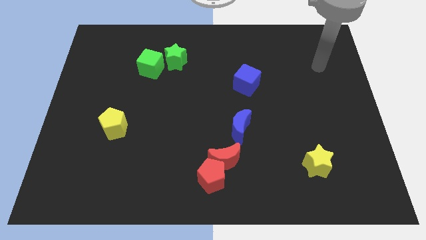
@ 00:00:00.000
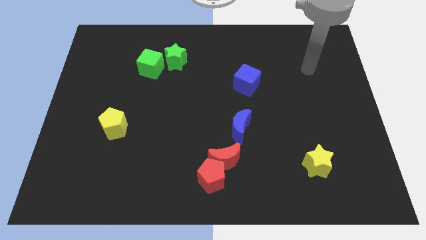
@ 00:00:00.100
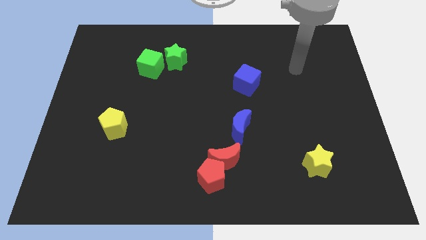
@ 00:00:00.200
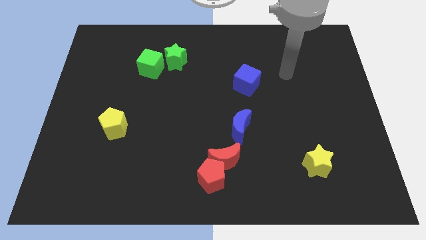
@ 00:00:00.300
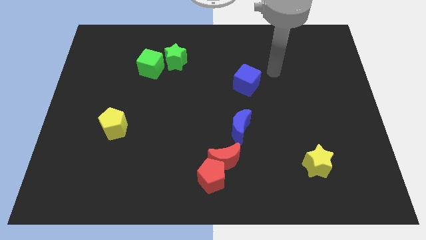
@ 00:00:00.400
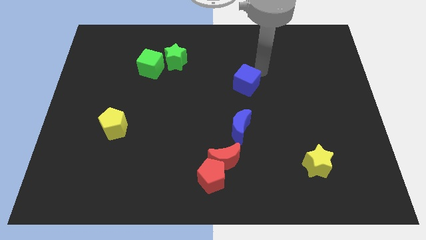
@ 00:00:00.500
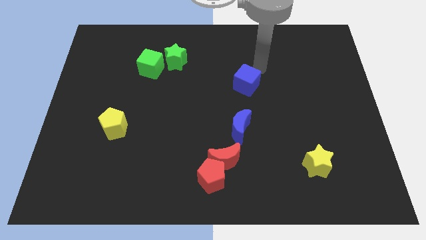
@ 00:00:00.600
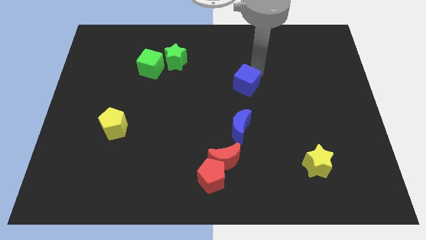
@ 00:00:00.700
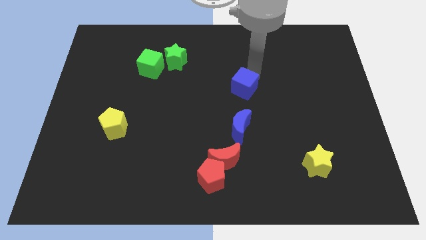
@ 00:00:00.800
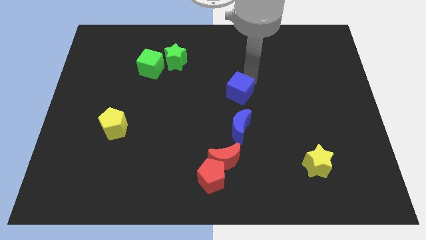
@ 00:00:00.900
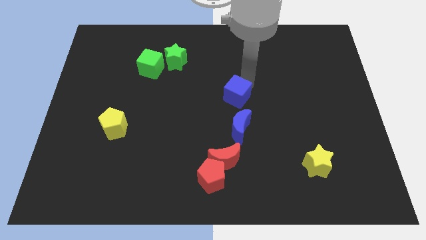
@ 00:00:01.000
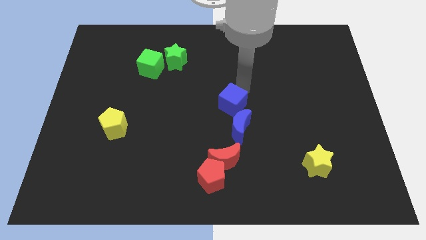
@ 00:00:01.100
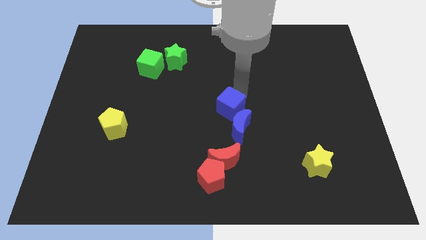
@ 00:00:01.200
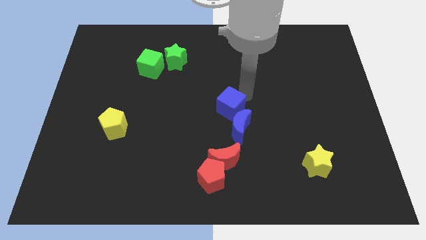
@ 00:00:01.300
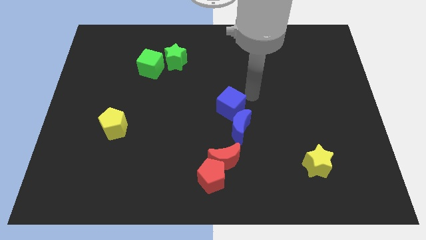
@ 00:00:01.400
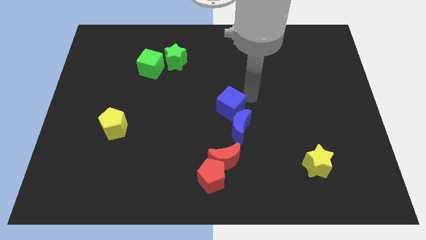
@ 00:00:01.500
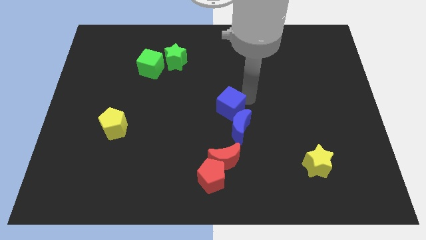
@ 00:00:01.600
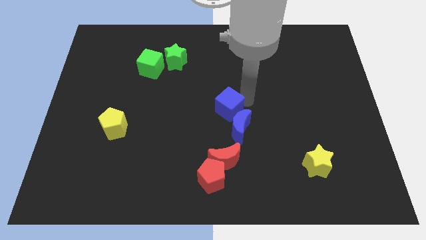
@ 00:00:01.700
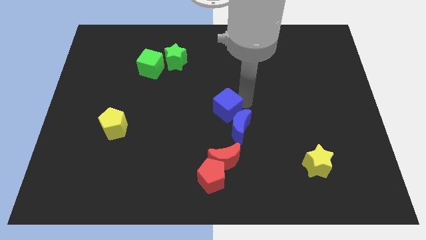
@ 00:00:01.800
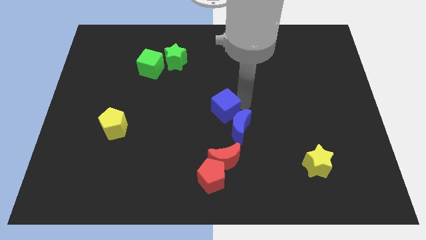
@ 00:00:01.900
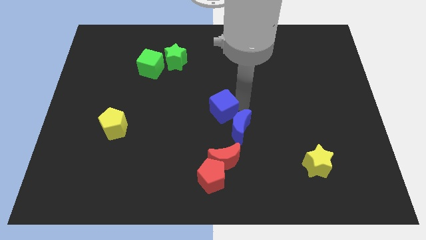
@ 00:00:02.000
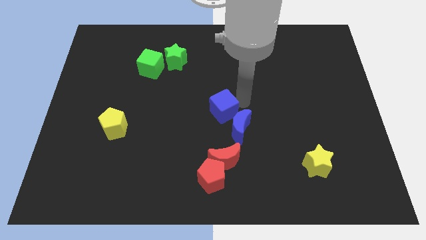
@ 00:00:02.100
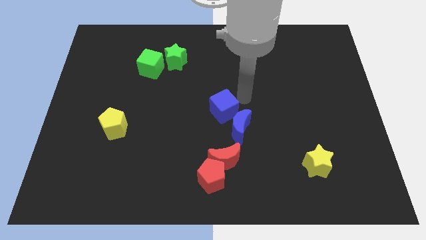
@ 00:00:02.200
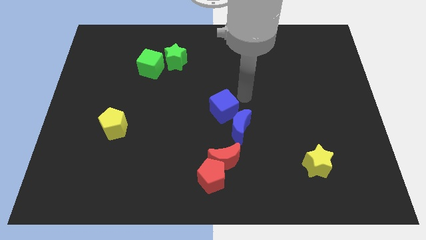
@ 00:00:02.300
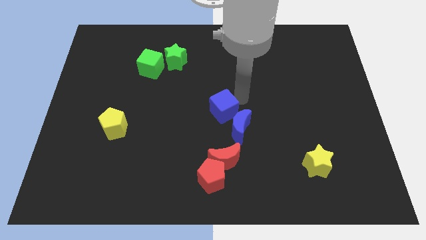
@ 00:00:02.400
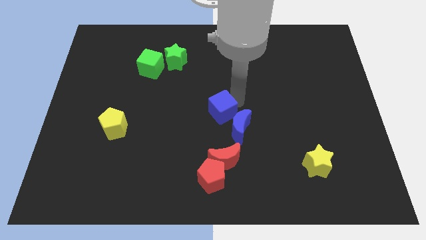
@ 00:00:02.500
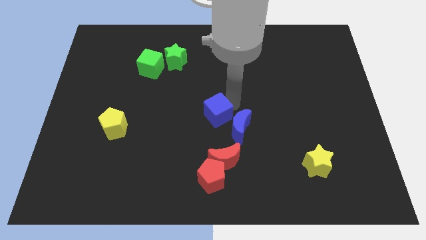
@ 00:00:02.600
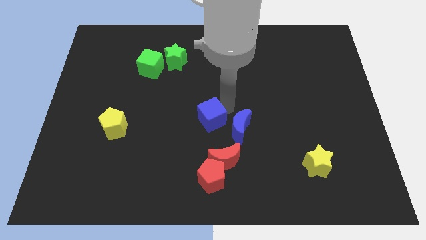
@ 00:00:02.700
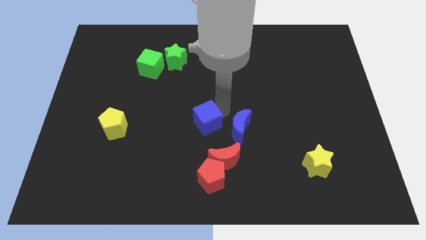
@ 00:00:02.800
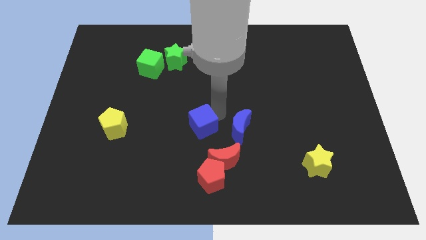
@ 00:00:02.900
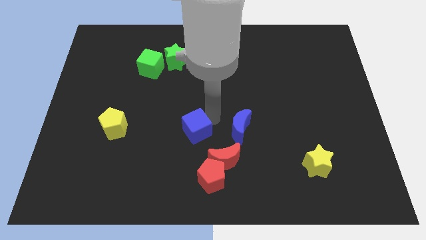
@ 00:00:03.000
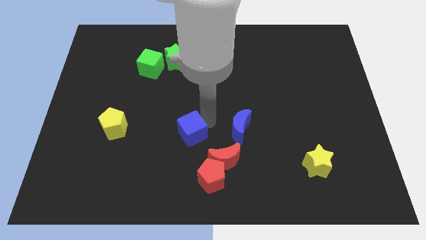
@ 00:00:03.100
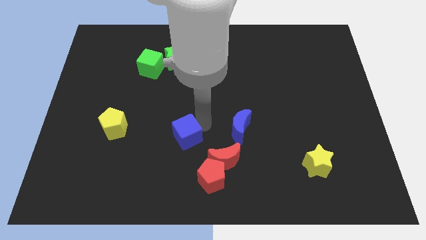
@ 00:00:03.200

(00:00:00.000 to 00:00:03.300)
slide the blue cube downwards and to the left diagonally

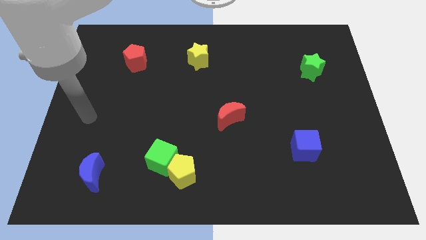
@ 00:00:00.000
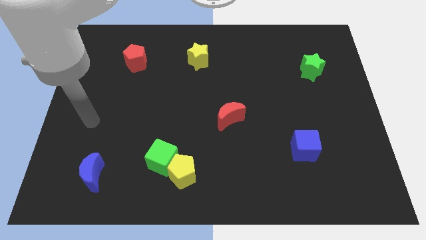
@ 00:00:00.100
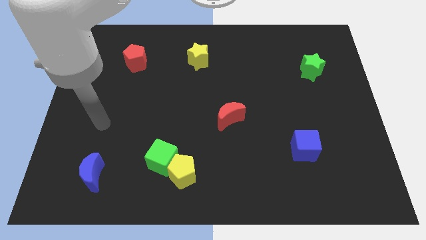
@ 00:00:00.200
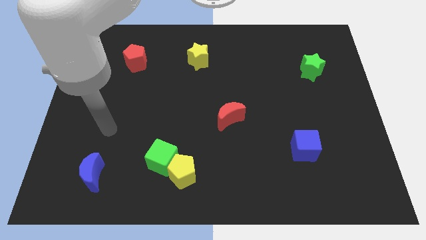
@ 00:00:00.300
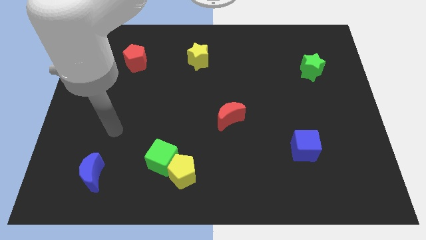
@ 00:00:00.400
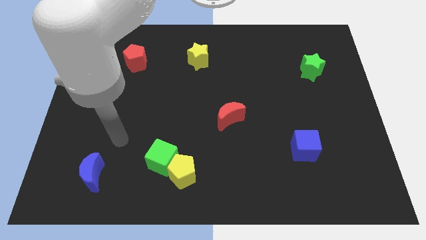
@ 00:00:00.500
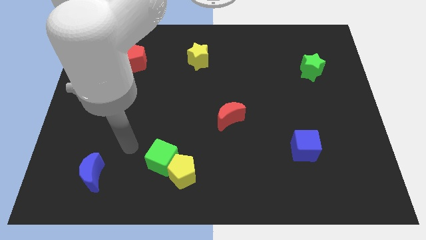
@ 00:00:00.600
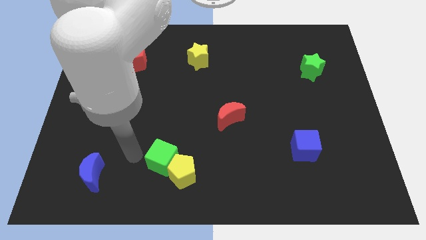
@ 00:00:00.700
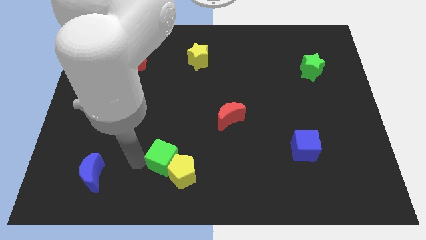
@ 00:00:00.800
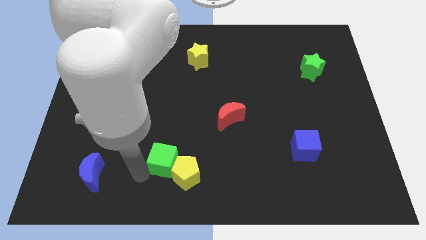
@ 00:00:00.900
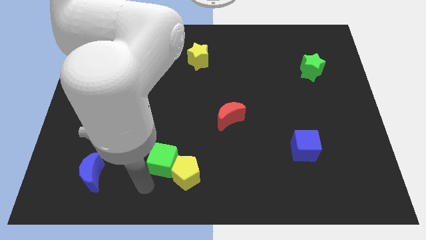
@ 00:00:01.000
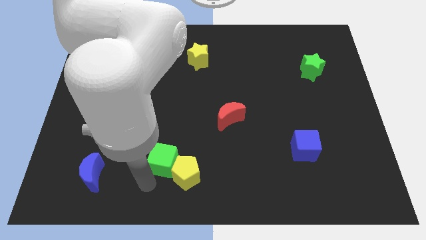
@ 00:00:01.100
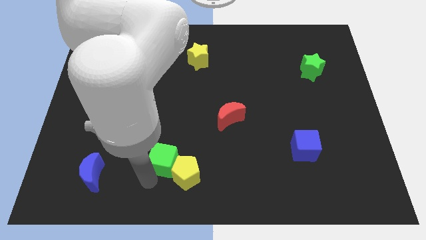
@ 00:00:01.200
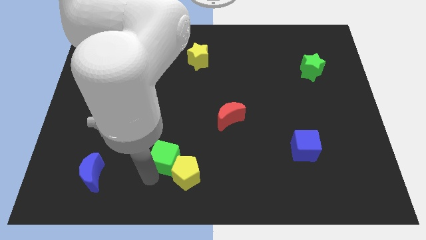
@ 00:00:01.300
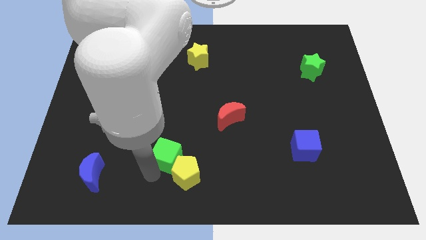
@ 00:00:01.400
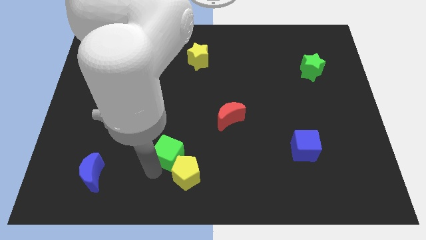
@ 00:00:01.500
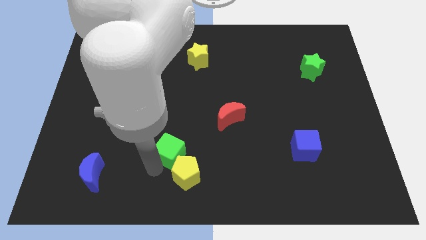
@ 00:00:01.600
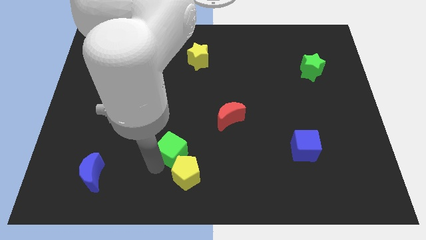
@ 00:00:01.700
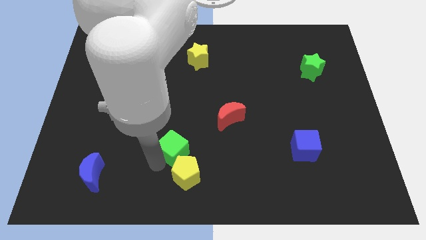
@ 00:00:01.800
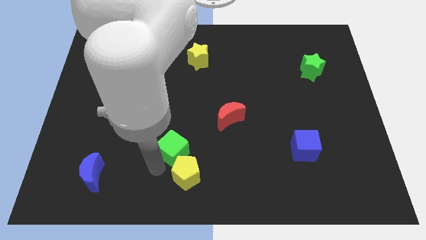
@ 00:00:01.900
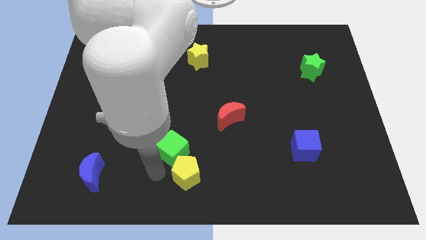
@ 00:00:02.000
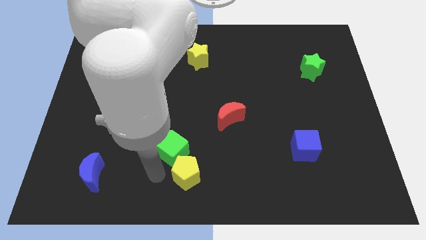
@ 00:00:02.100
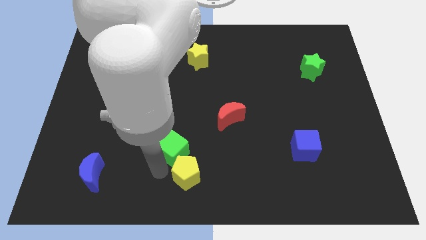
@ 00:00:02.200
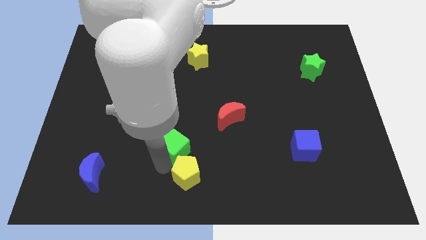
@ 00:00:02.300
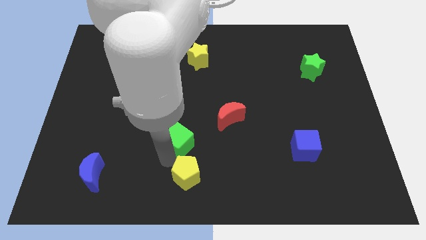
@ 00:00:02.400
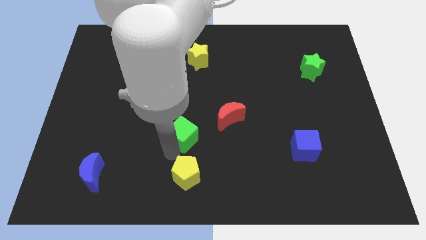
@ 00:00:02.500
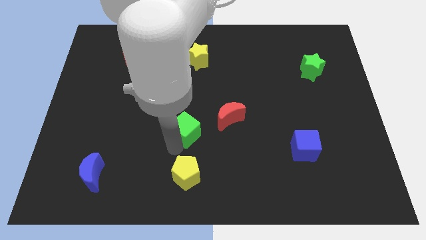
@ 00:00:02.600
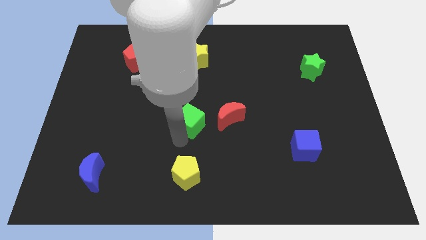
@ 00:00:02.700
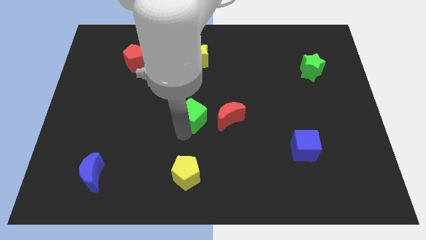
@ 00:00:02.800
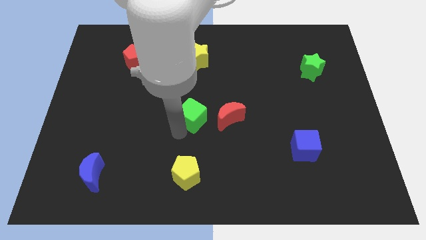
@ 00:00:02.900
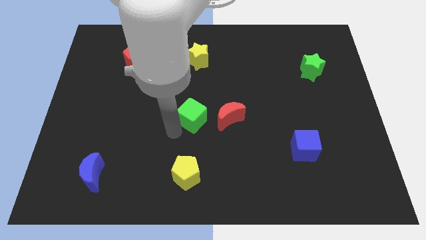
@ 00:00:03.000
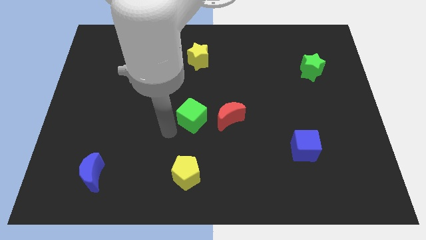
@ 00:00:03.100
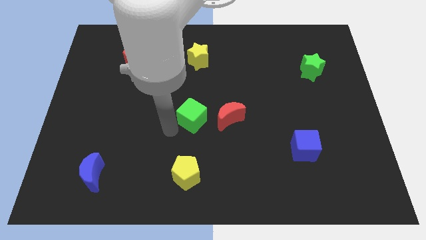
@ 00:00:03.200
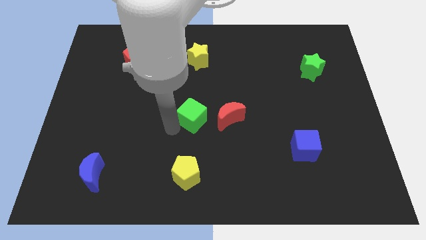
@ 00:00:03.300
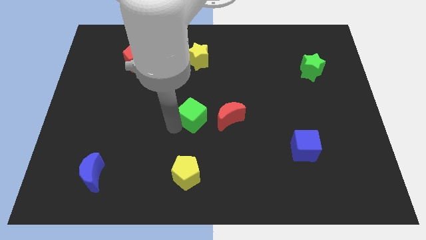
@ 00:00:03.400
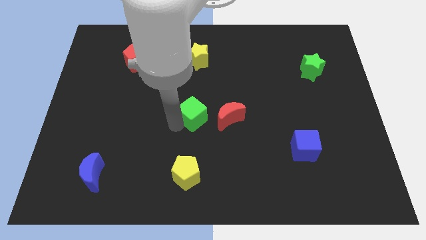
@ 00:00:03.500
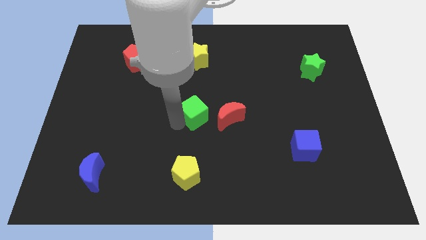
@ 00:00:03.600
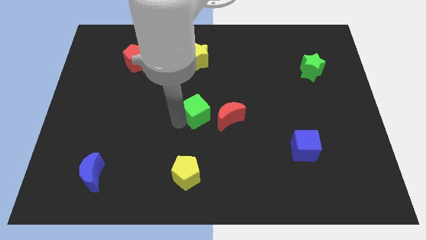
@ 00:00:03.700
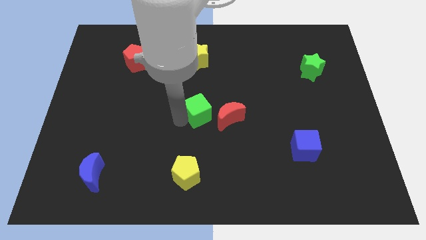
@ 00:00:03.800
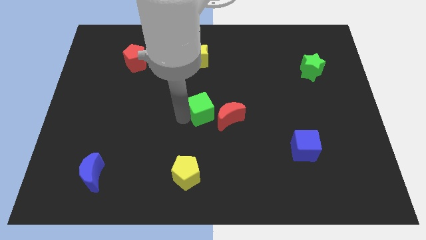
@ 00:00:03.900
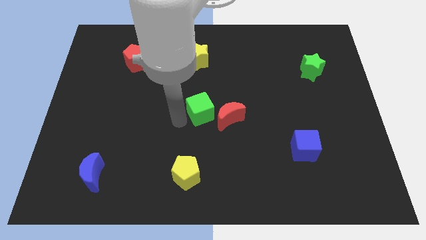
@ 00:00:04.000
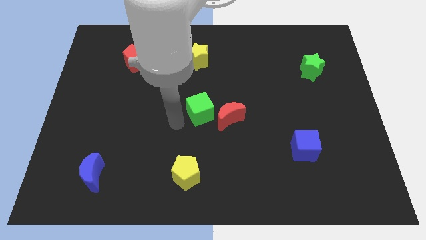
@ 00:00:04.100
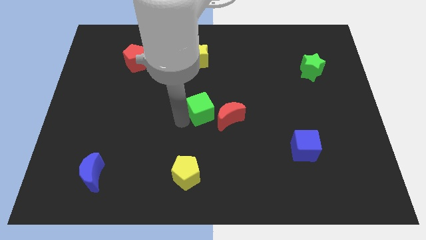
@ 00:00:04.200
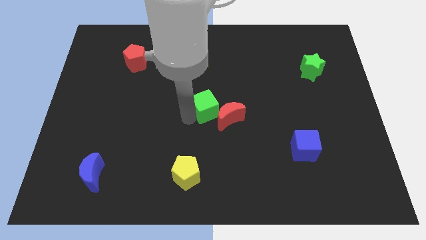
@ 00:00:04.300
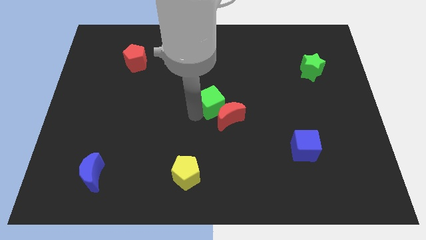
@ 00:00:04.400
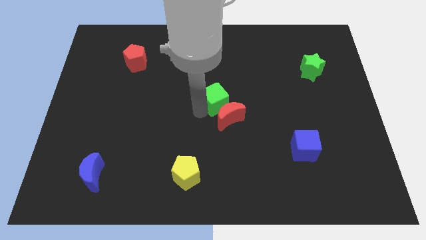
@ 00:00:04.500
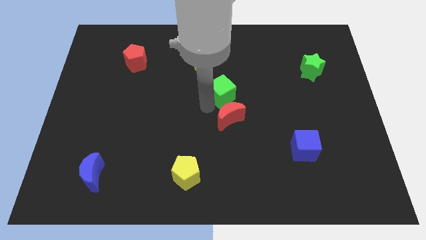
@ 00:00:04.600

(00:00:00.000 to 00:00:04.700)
push the green cube upwards and then to the right
